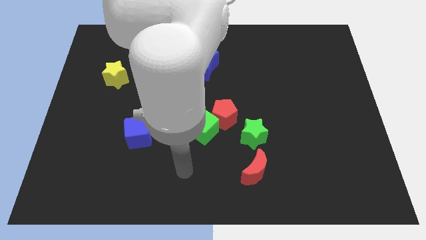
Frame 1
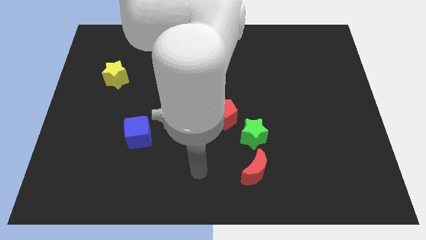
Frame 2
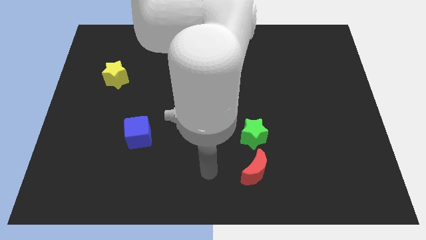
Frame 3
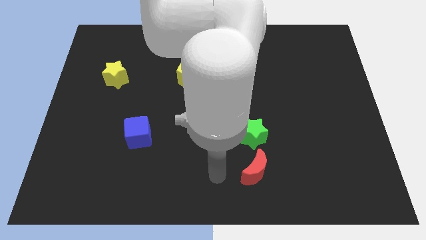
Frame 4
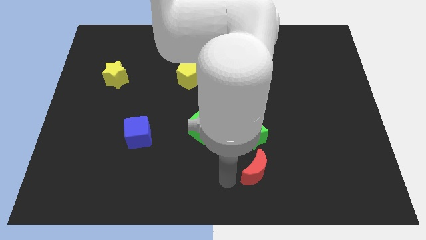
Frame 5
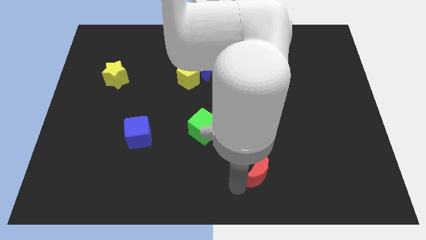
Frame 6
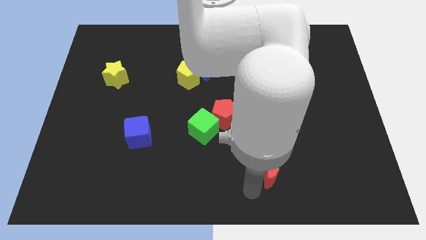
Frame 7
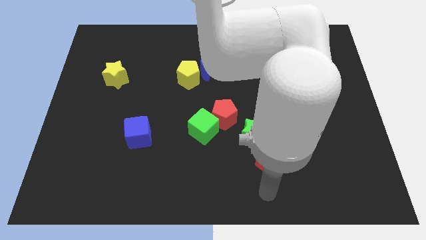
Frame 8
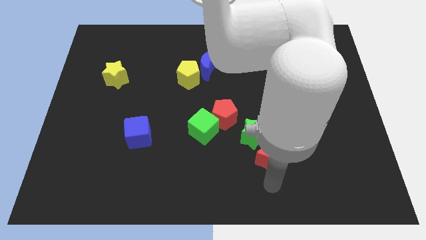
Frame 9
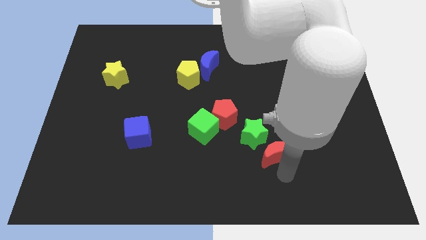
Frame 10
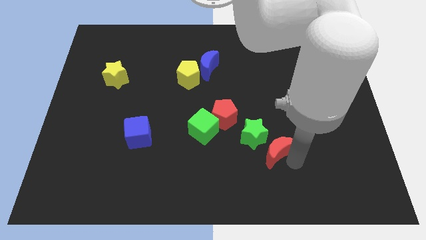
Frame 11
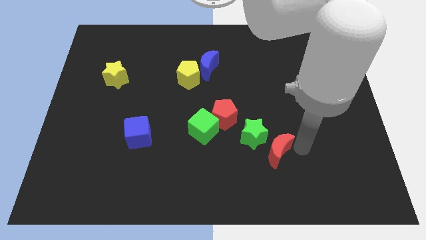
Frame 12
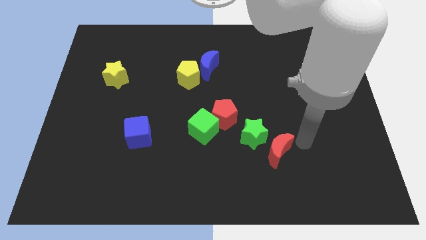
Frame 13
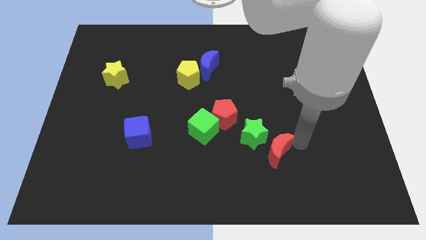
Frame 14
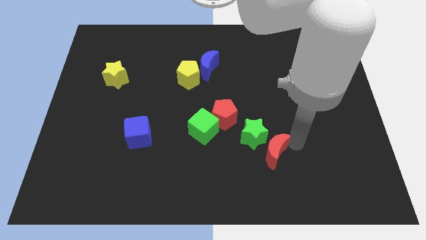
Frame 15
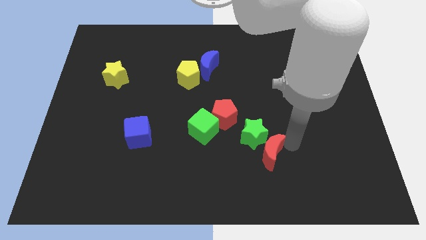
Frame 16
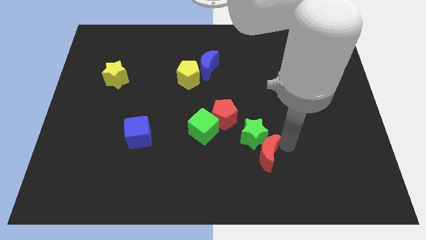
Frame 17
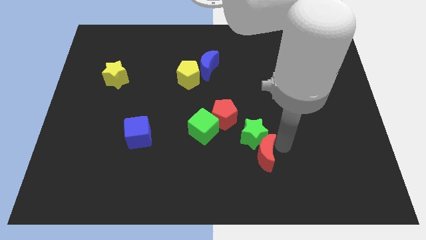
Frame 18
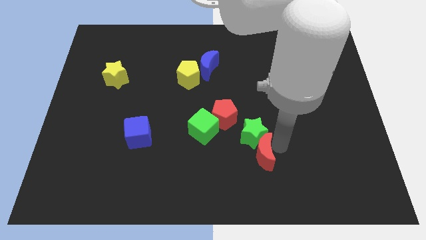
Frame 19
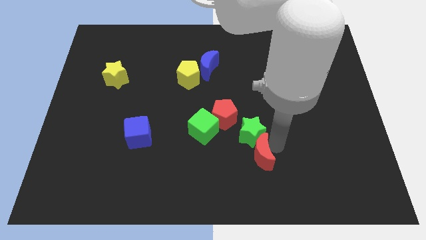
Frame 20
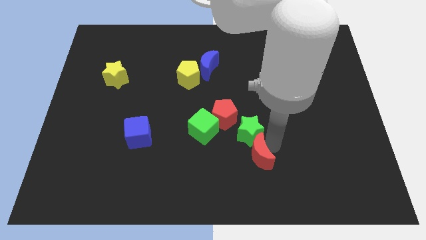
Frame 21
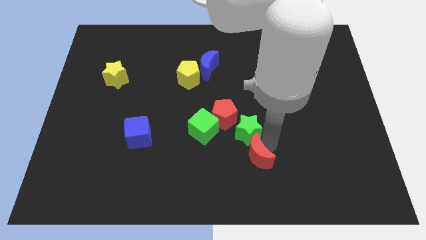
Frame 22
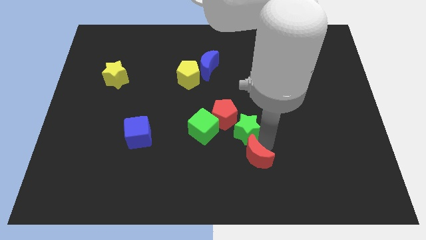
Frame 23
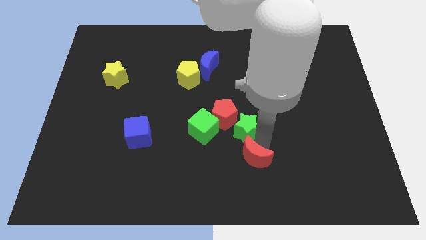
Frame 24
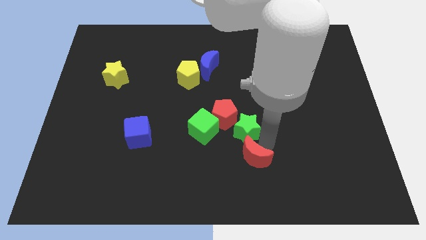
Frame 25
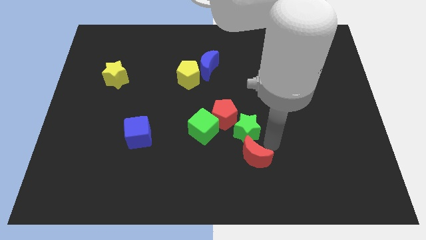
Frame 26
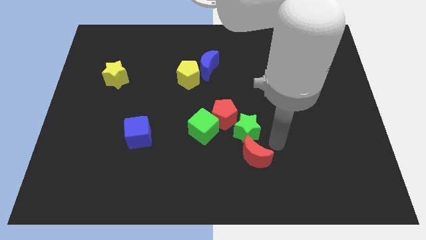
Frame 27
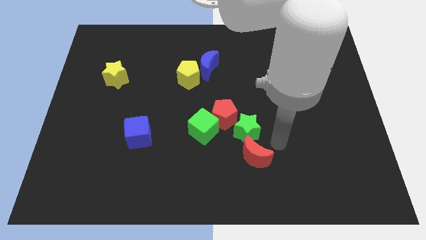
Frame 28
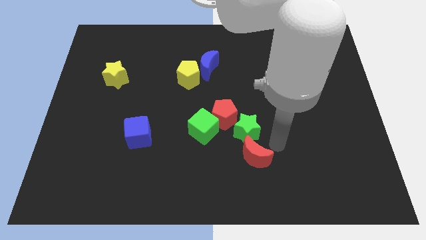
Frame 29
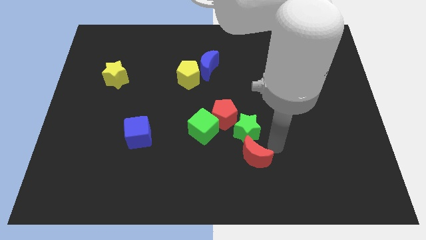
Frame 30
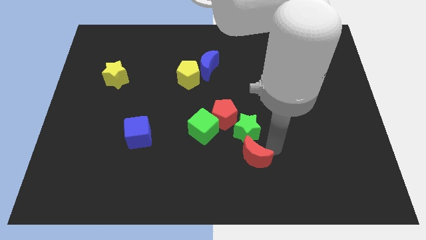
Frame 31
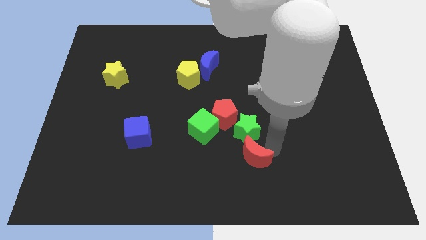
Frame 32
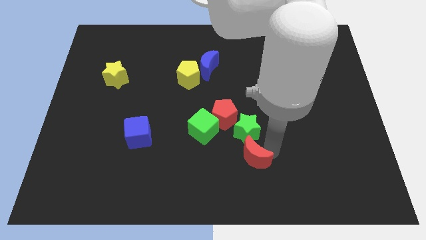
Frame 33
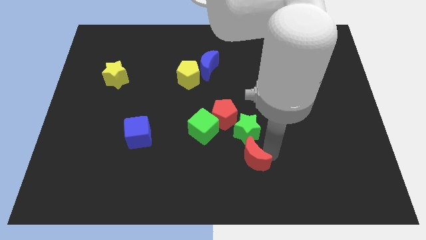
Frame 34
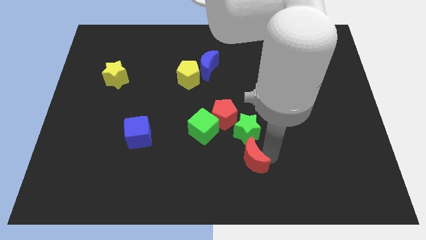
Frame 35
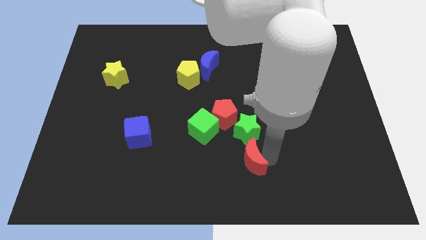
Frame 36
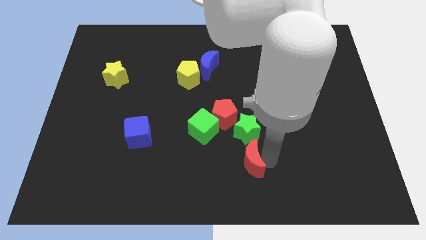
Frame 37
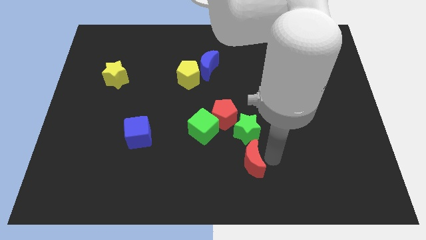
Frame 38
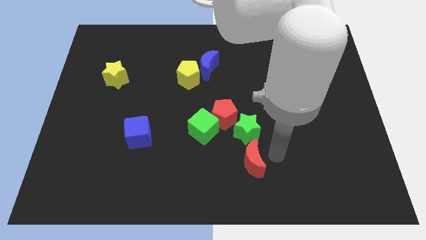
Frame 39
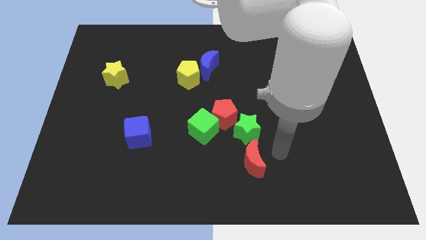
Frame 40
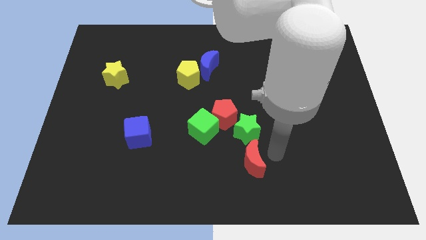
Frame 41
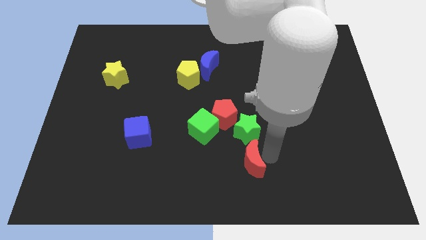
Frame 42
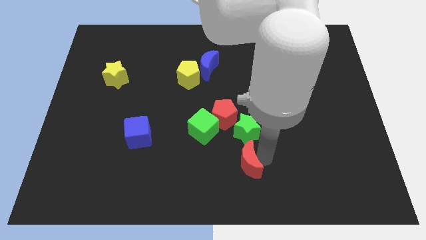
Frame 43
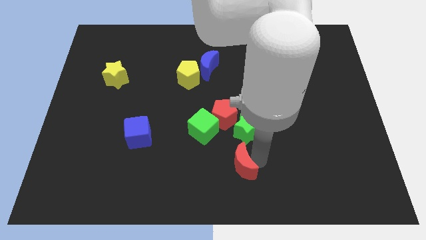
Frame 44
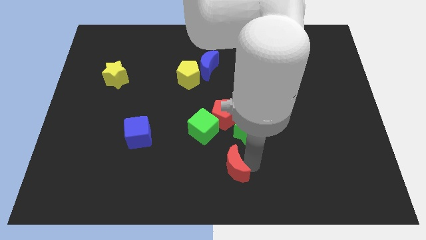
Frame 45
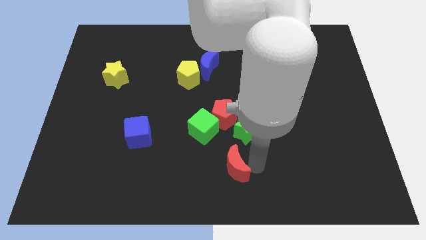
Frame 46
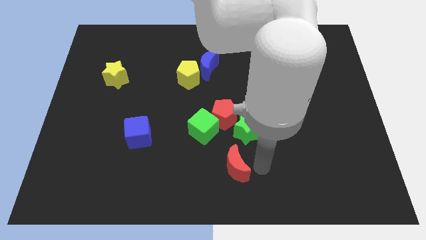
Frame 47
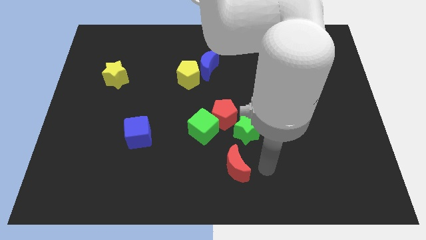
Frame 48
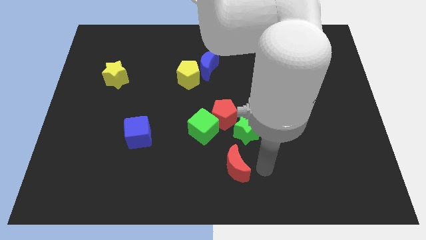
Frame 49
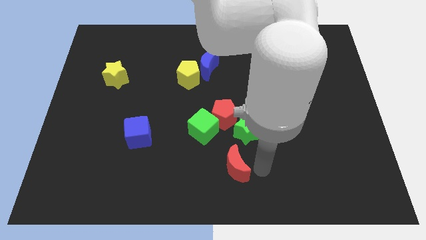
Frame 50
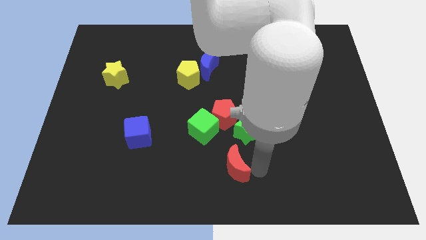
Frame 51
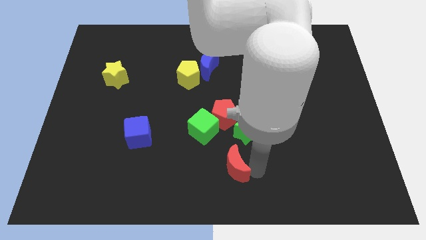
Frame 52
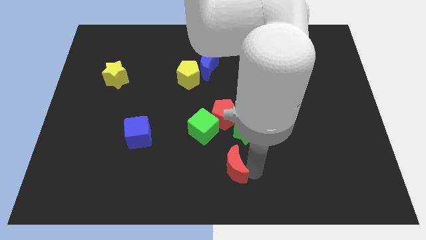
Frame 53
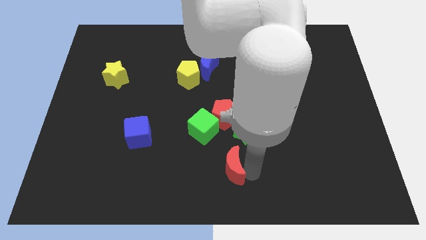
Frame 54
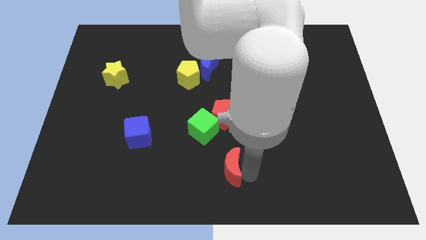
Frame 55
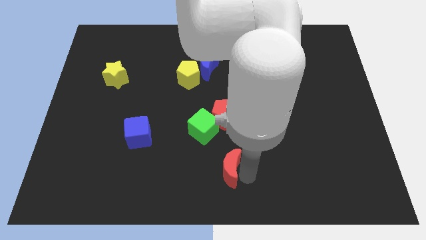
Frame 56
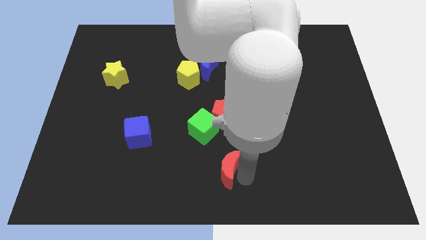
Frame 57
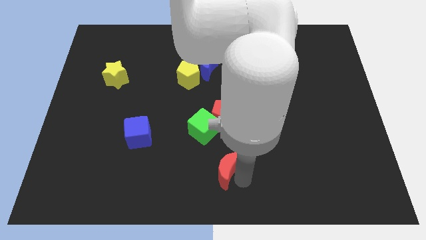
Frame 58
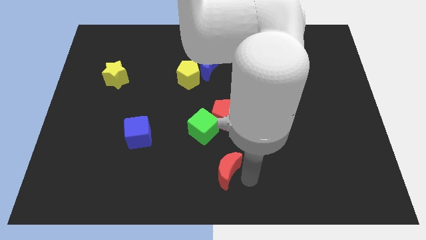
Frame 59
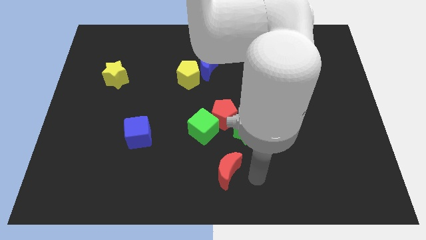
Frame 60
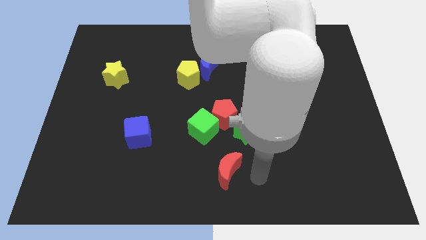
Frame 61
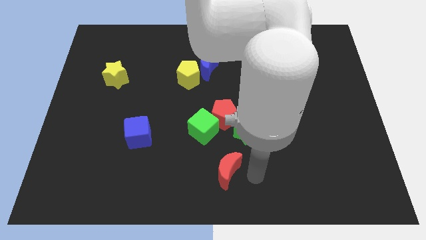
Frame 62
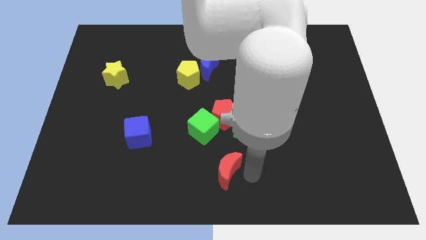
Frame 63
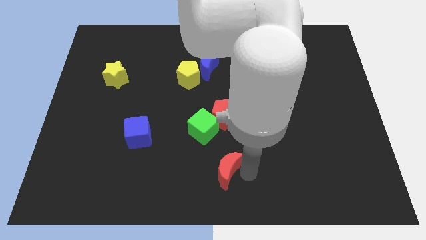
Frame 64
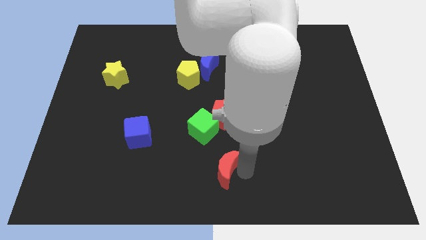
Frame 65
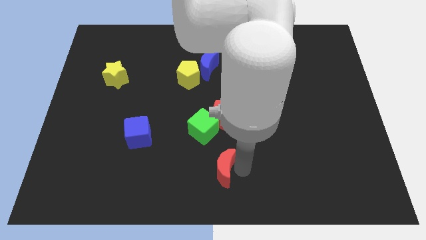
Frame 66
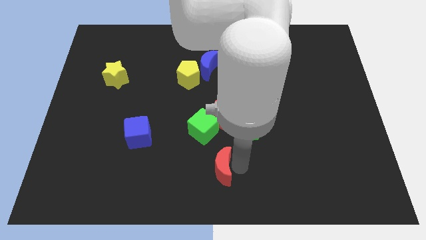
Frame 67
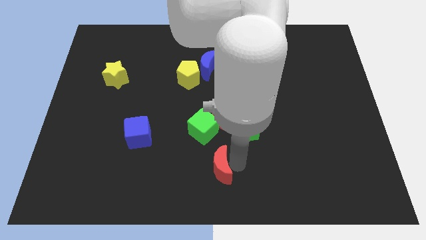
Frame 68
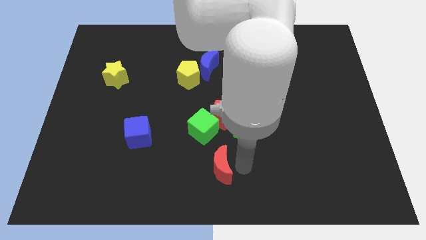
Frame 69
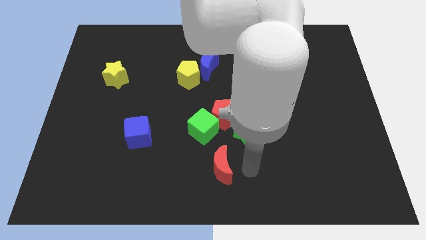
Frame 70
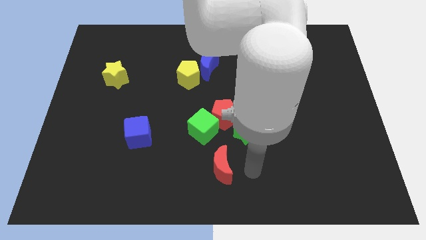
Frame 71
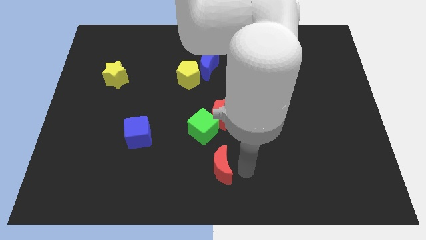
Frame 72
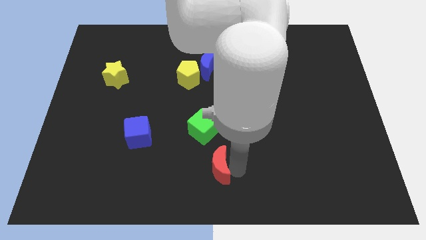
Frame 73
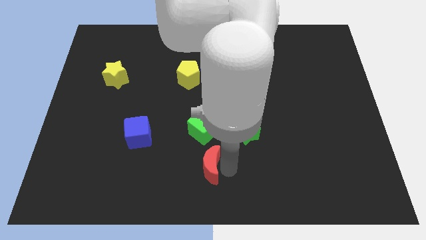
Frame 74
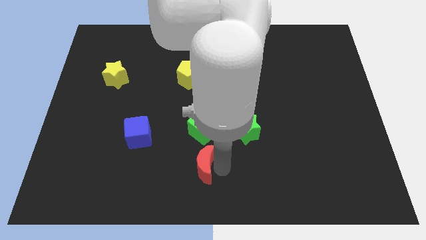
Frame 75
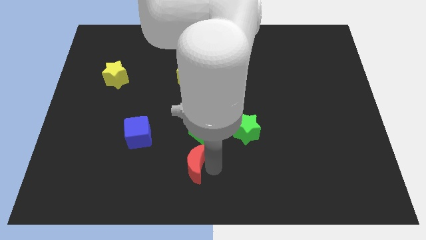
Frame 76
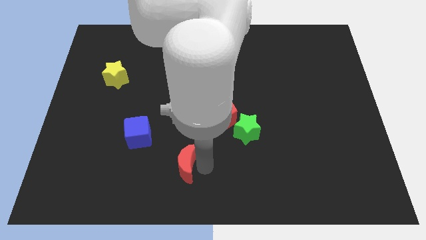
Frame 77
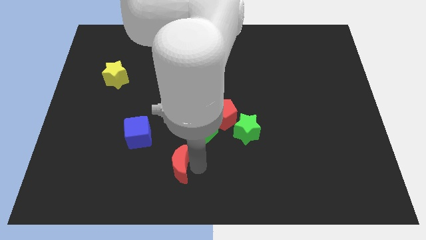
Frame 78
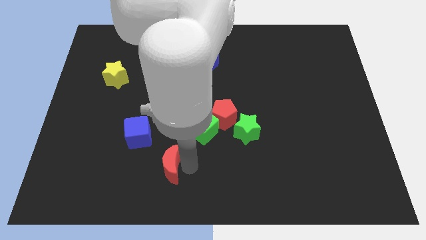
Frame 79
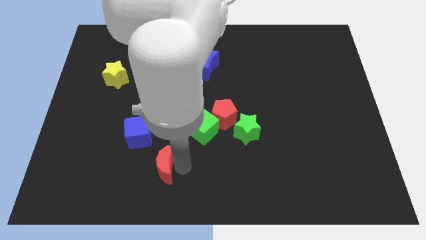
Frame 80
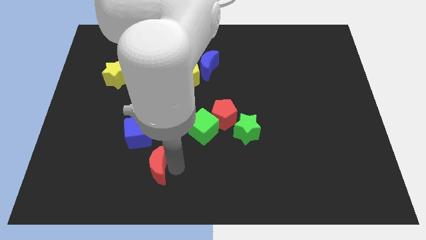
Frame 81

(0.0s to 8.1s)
push the red moon to the left

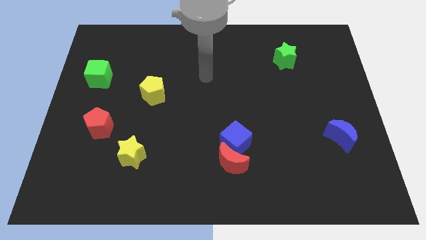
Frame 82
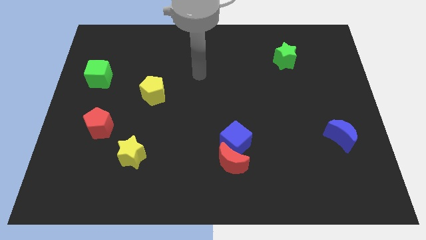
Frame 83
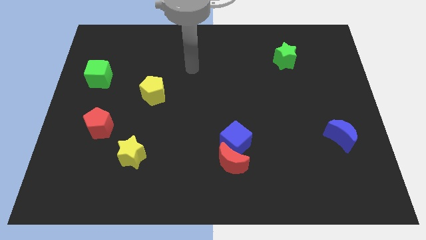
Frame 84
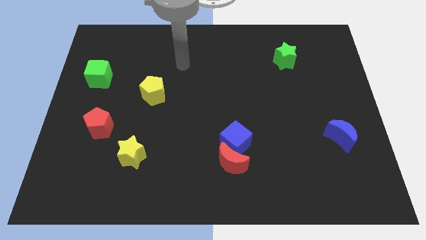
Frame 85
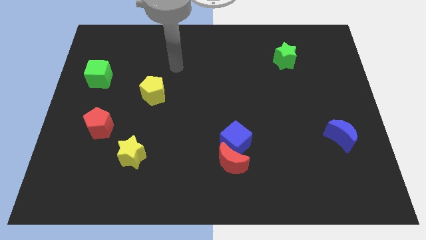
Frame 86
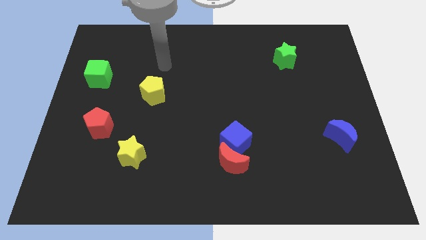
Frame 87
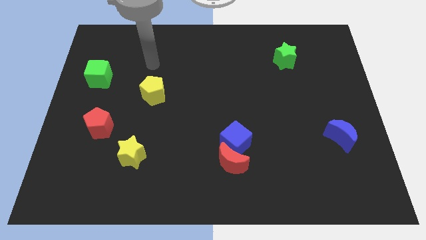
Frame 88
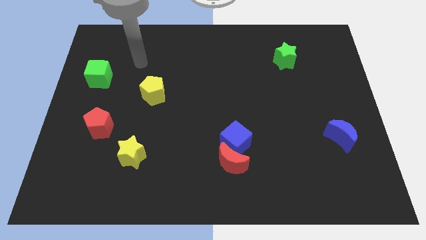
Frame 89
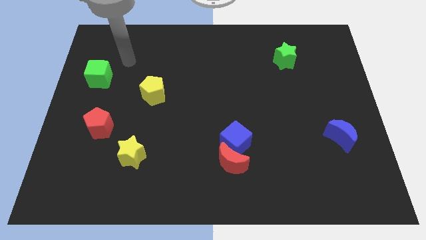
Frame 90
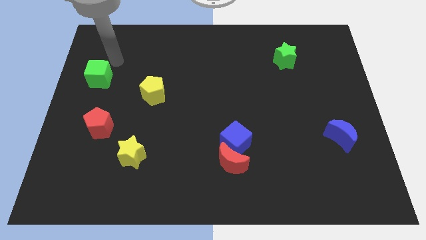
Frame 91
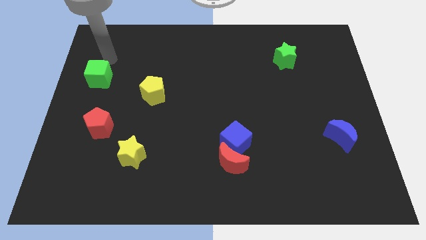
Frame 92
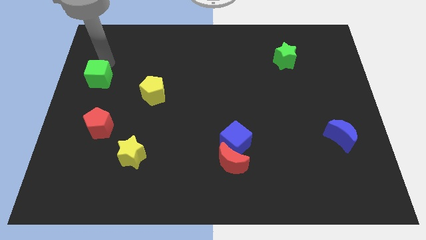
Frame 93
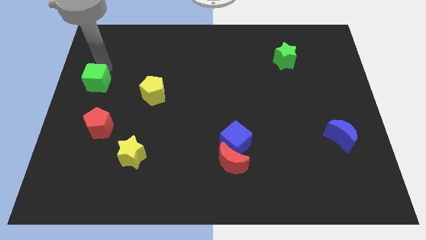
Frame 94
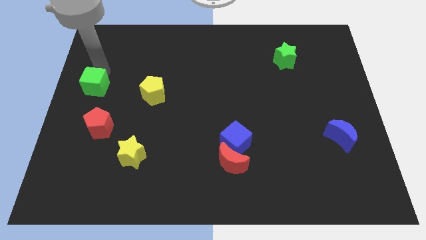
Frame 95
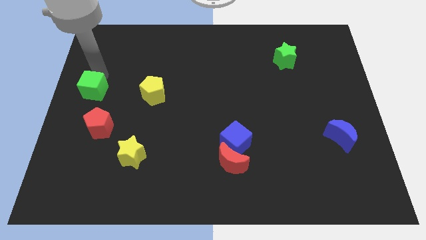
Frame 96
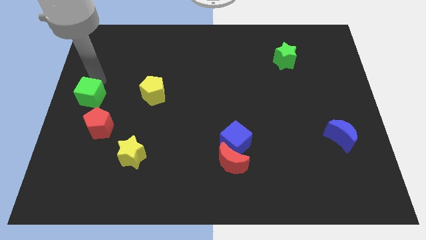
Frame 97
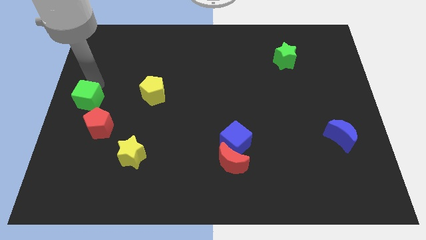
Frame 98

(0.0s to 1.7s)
move the green cube down somewhat
